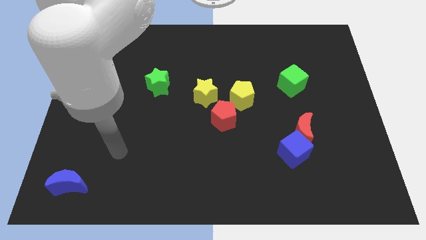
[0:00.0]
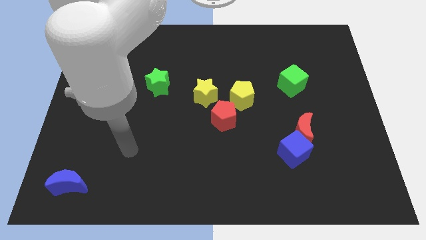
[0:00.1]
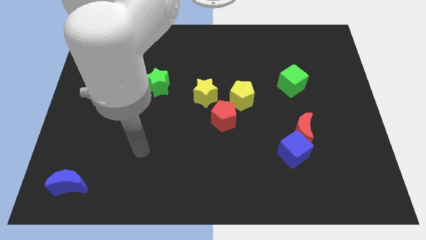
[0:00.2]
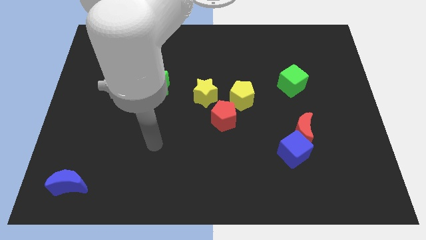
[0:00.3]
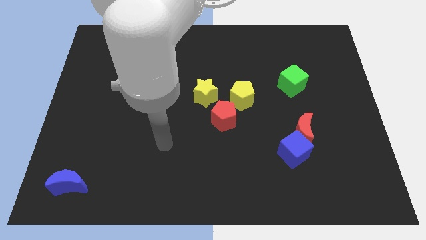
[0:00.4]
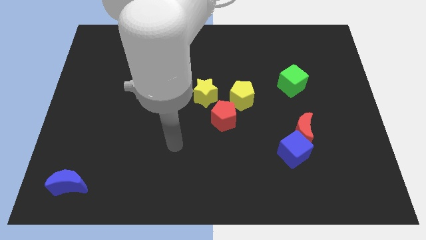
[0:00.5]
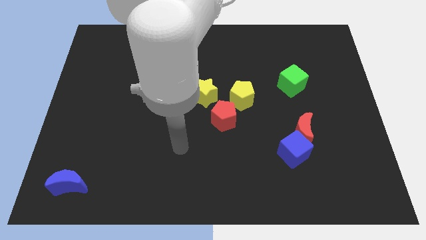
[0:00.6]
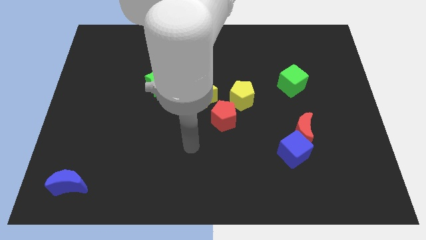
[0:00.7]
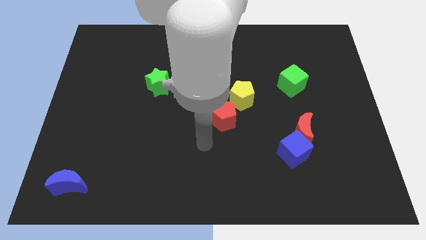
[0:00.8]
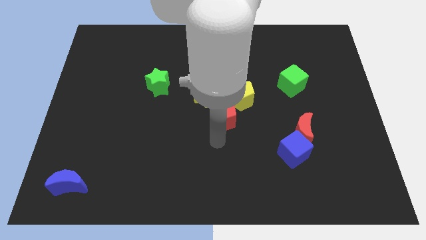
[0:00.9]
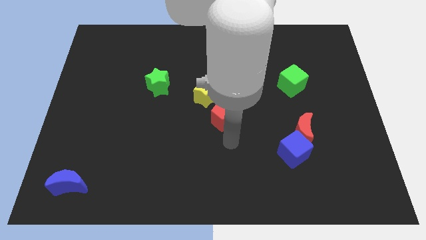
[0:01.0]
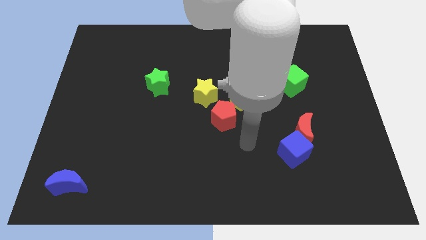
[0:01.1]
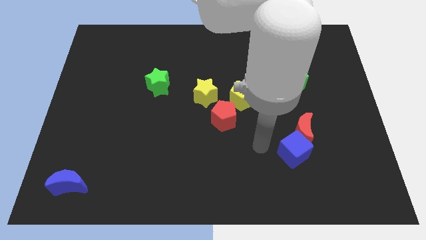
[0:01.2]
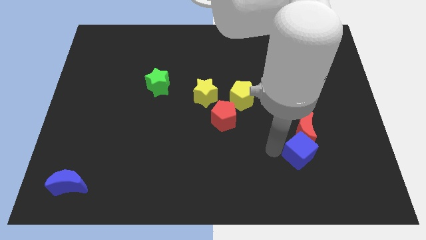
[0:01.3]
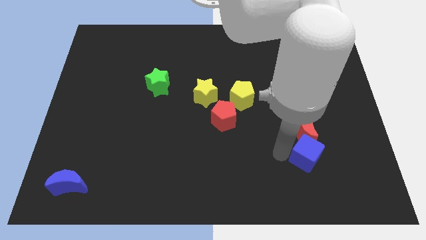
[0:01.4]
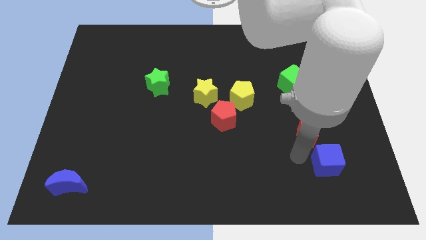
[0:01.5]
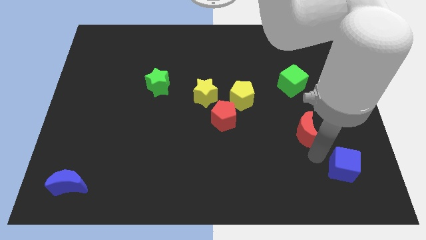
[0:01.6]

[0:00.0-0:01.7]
move the red moon away from the blue cube

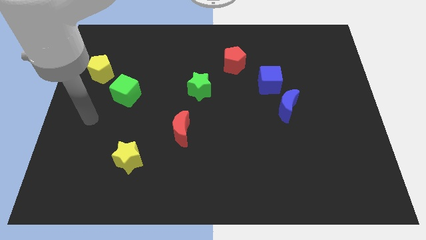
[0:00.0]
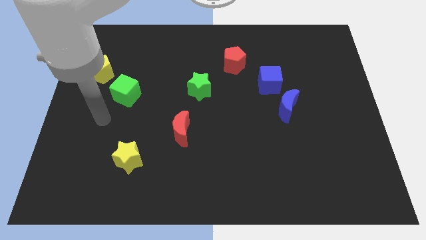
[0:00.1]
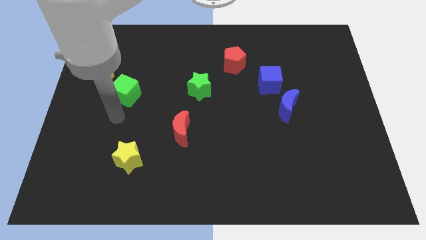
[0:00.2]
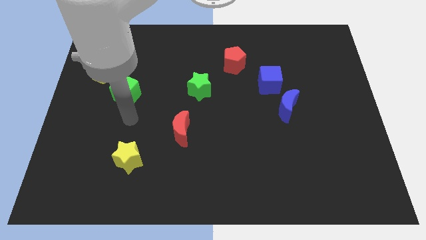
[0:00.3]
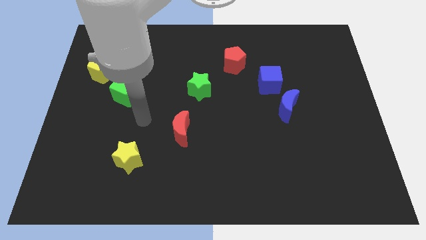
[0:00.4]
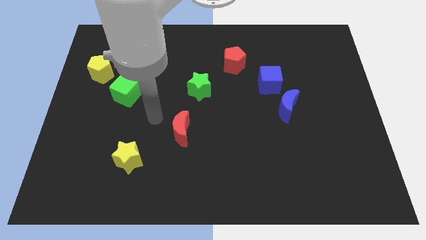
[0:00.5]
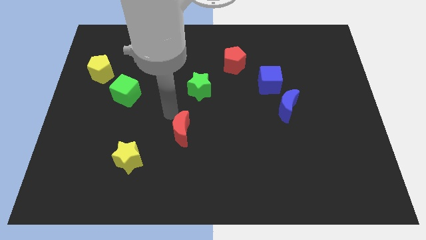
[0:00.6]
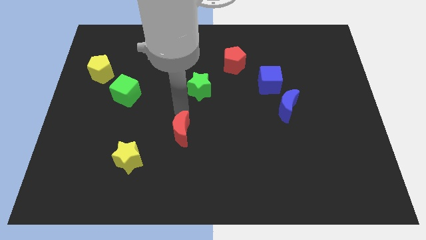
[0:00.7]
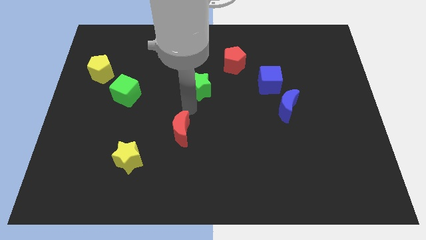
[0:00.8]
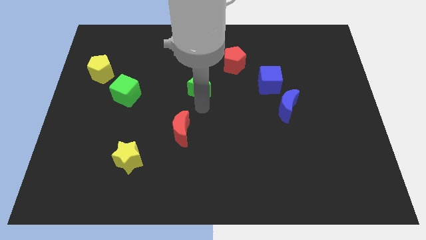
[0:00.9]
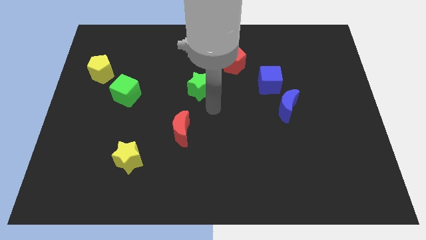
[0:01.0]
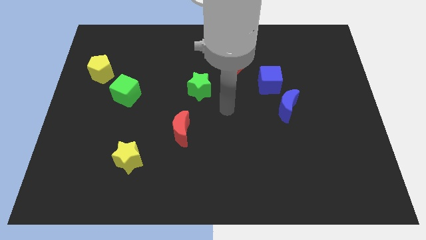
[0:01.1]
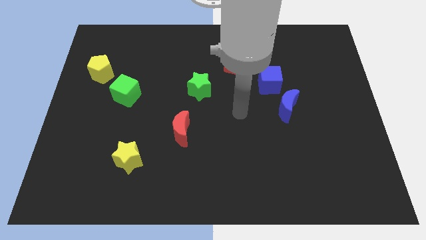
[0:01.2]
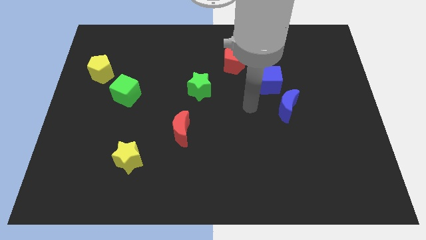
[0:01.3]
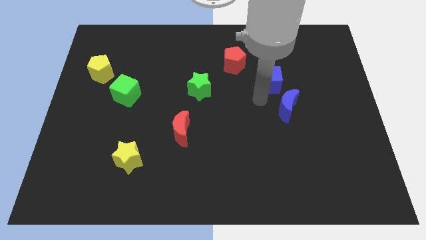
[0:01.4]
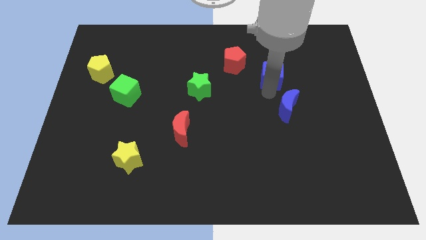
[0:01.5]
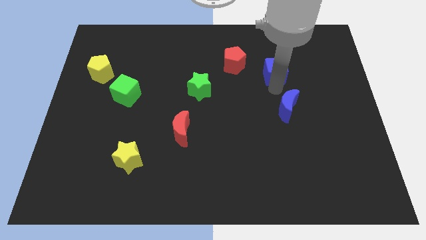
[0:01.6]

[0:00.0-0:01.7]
separate the blue moon from the blue cube

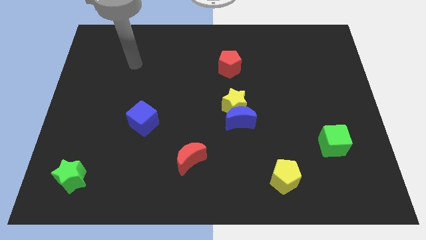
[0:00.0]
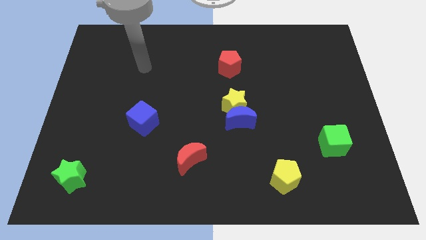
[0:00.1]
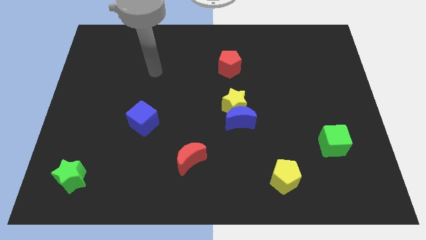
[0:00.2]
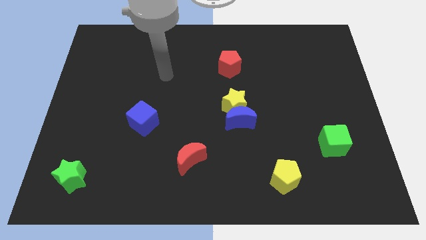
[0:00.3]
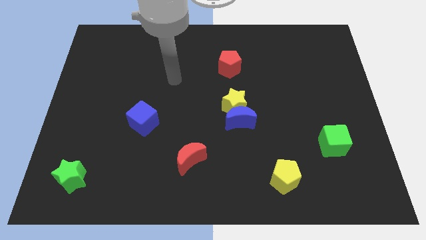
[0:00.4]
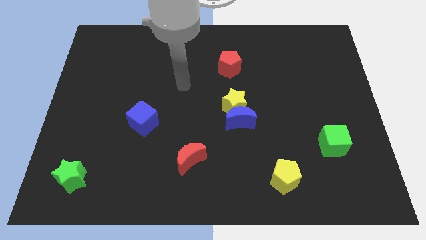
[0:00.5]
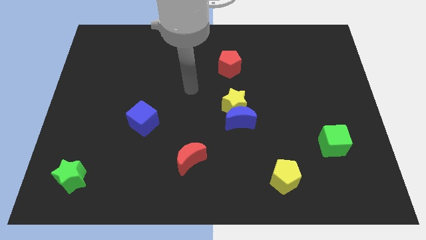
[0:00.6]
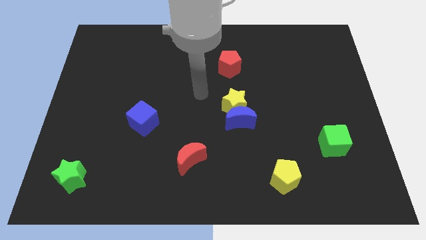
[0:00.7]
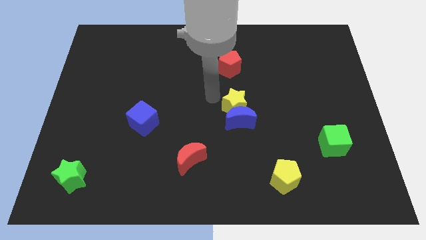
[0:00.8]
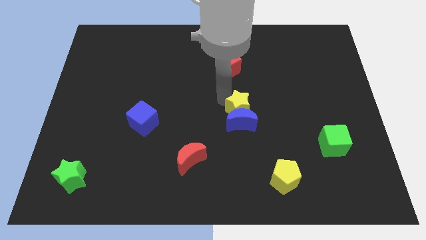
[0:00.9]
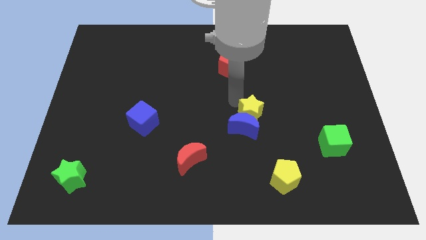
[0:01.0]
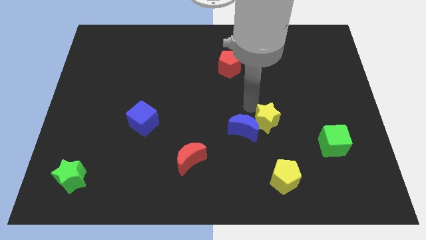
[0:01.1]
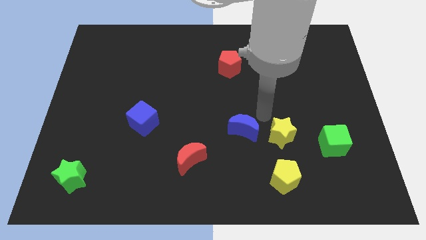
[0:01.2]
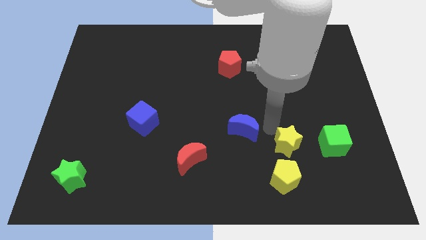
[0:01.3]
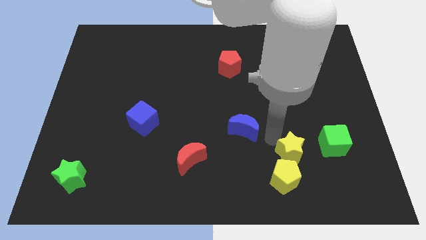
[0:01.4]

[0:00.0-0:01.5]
pull the blue moon apart from the yellow star

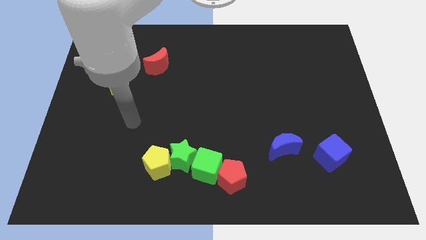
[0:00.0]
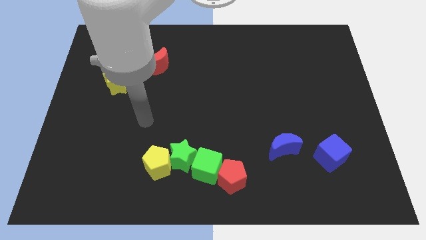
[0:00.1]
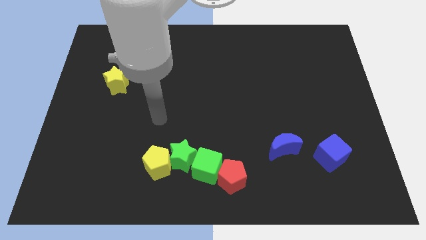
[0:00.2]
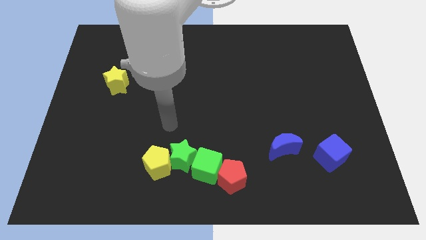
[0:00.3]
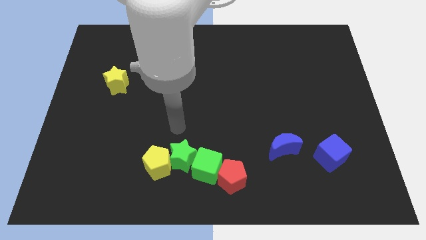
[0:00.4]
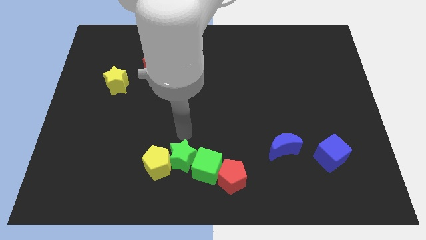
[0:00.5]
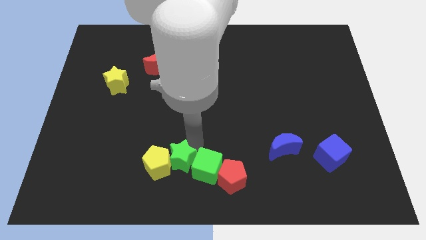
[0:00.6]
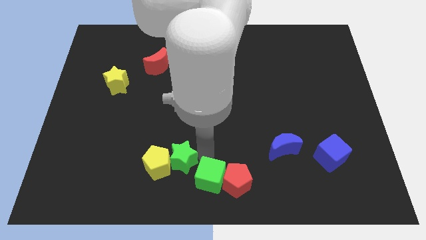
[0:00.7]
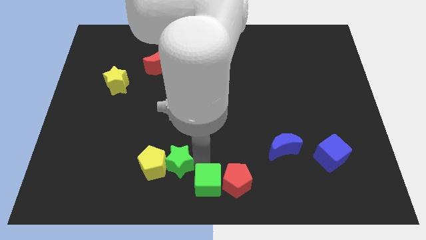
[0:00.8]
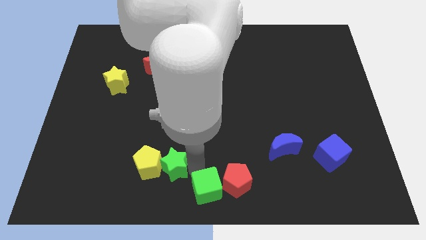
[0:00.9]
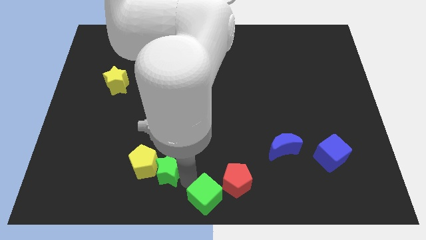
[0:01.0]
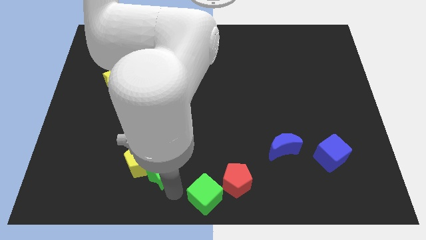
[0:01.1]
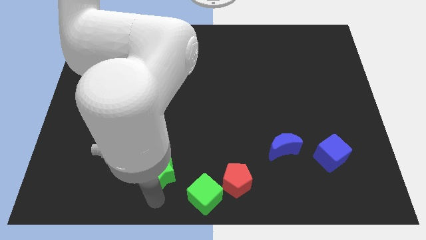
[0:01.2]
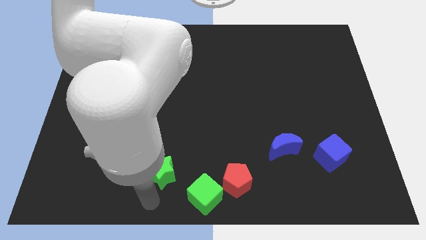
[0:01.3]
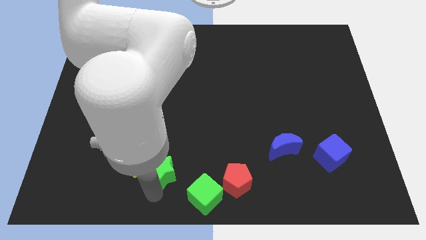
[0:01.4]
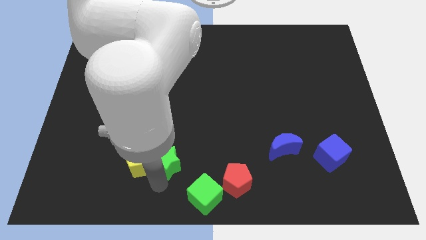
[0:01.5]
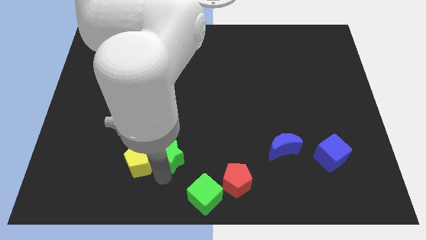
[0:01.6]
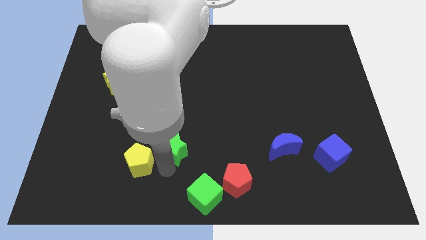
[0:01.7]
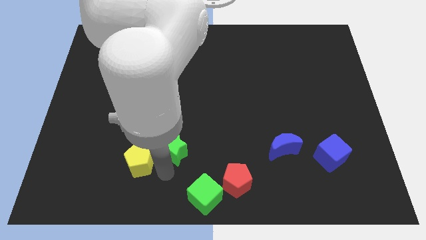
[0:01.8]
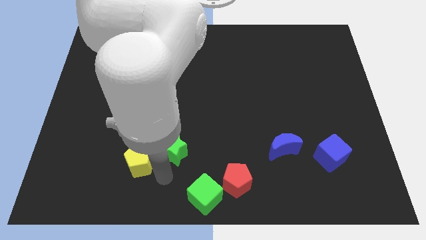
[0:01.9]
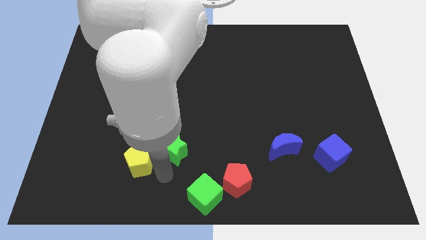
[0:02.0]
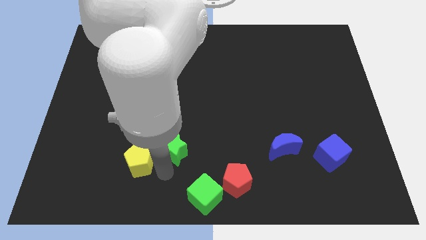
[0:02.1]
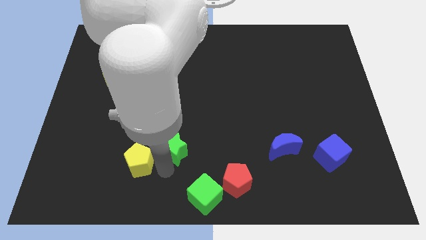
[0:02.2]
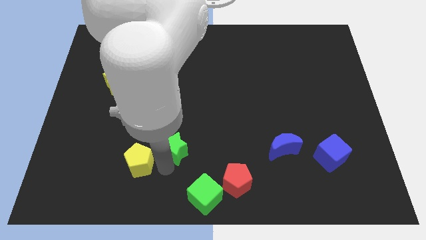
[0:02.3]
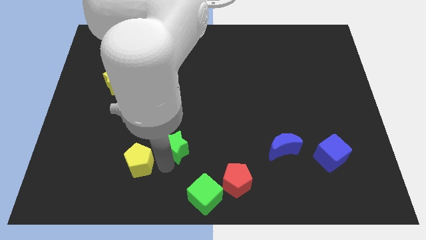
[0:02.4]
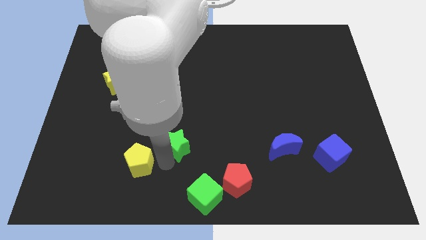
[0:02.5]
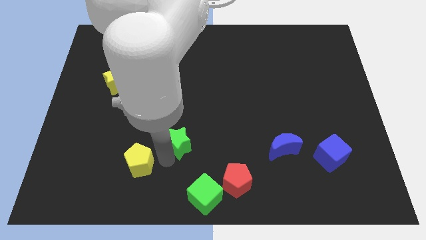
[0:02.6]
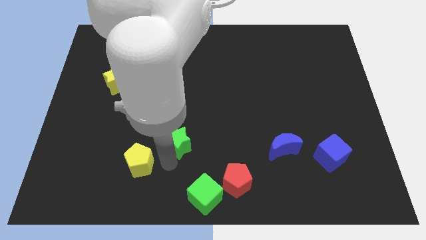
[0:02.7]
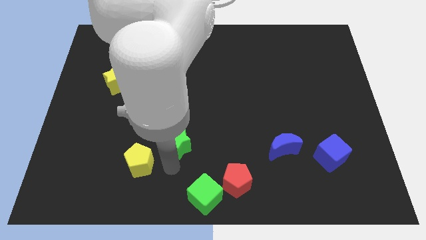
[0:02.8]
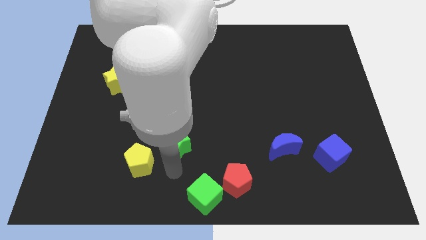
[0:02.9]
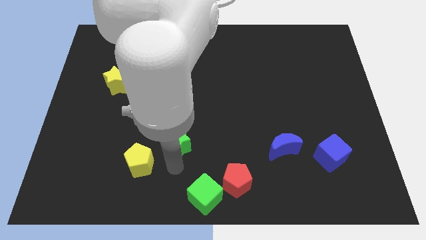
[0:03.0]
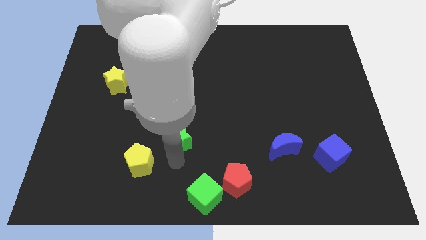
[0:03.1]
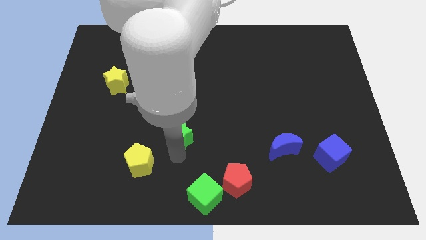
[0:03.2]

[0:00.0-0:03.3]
move the green star away from the yellow pentagon and green cube

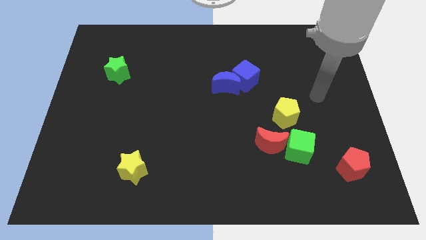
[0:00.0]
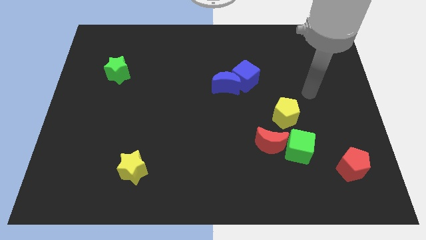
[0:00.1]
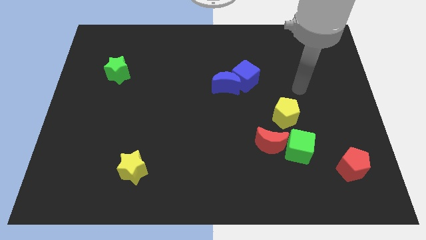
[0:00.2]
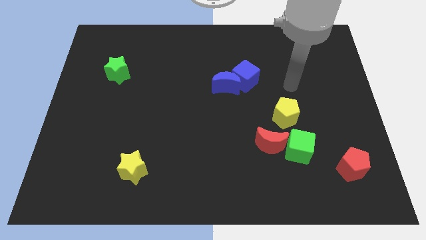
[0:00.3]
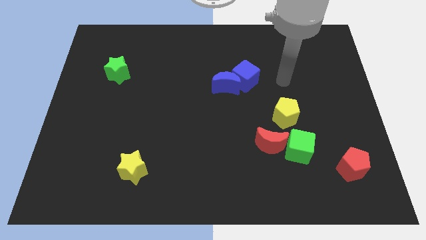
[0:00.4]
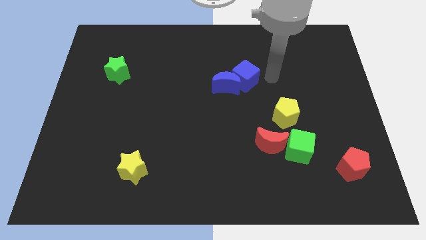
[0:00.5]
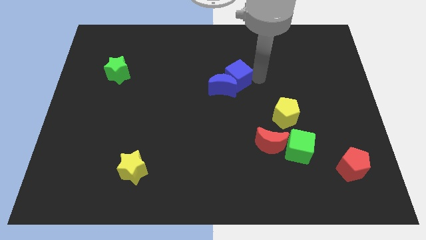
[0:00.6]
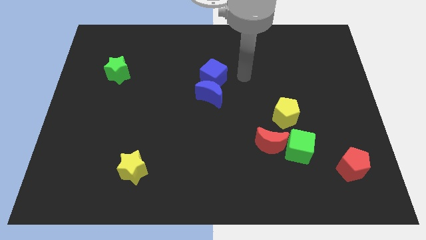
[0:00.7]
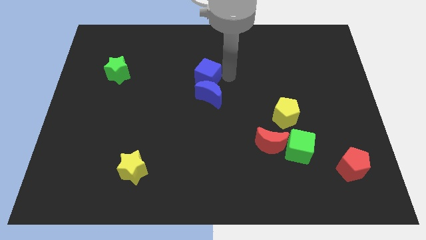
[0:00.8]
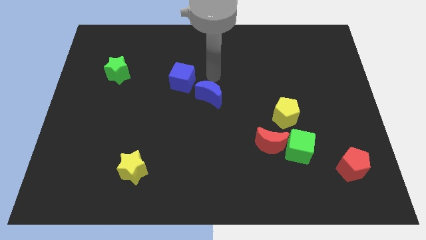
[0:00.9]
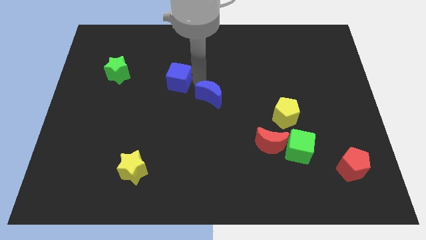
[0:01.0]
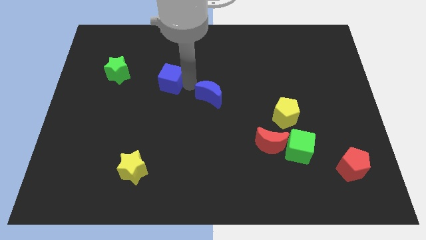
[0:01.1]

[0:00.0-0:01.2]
move the blue moon away from the blue cube

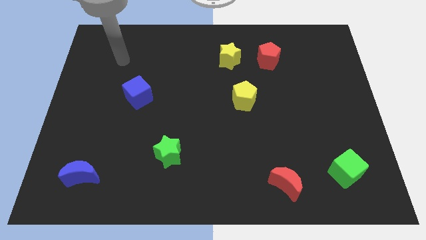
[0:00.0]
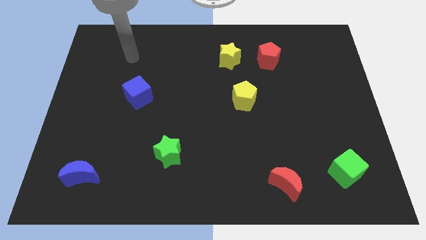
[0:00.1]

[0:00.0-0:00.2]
move the red pentagon away from the yellow star
